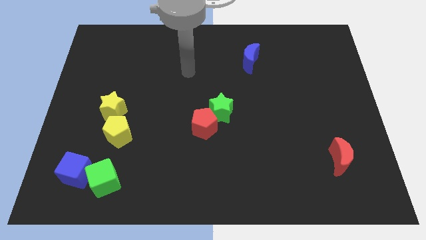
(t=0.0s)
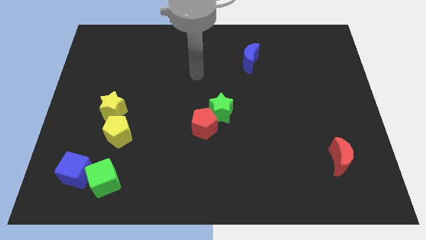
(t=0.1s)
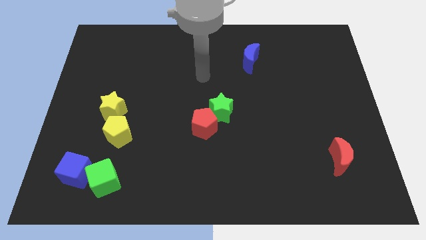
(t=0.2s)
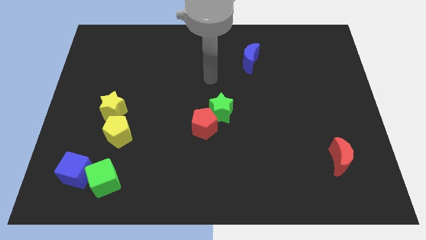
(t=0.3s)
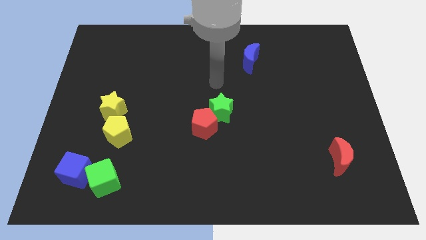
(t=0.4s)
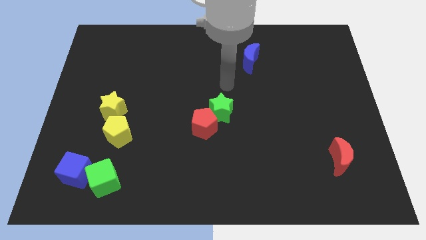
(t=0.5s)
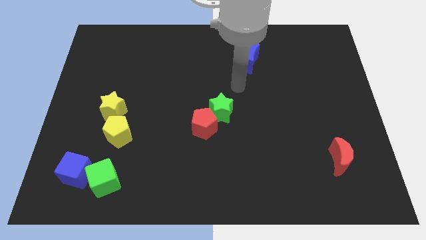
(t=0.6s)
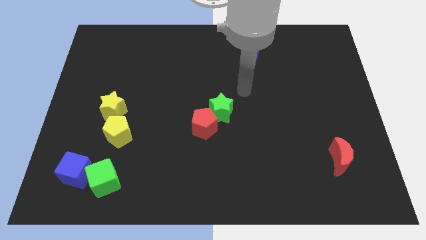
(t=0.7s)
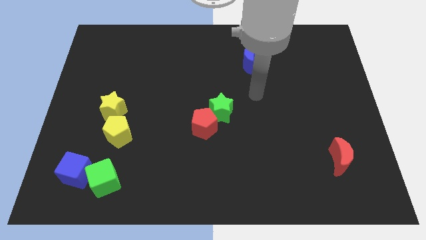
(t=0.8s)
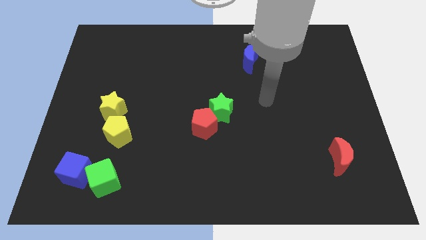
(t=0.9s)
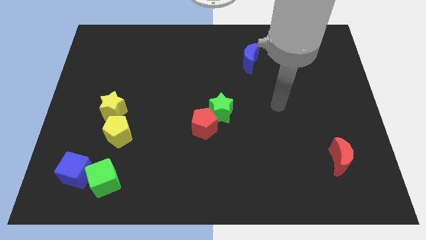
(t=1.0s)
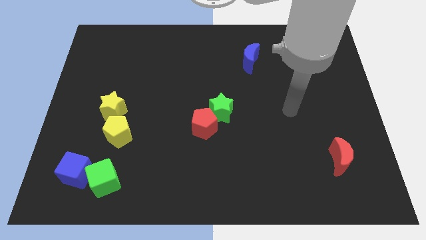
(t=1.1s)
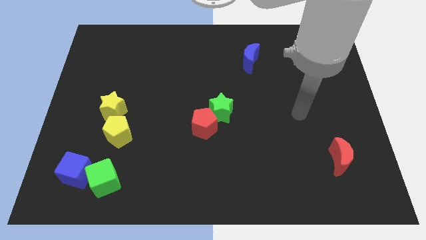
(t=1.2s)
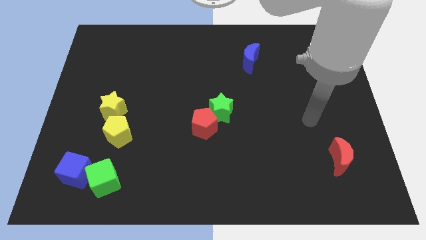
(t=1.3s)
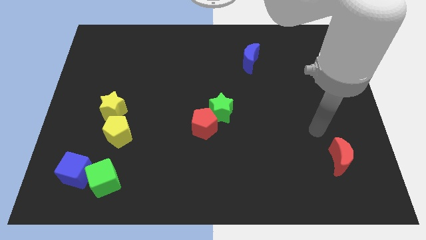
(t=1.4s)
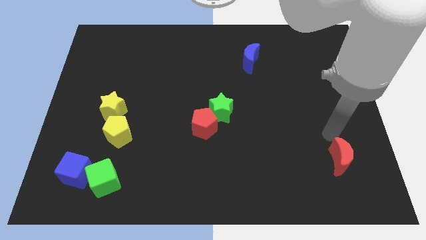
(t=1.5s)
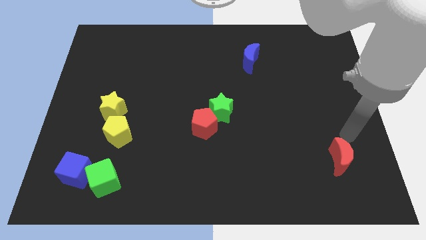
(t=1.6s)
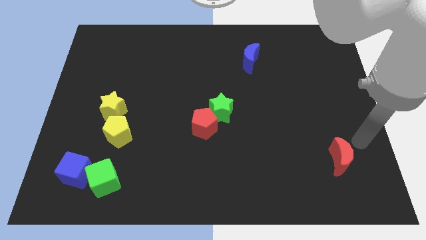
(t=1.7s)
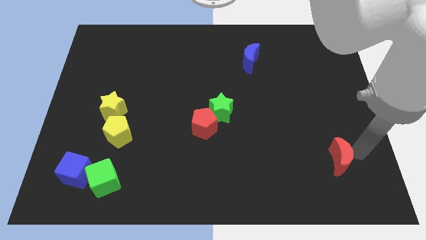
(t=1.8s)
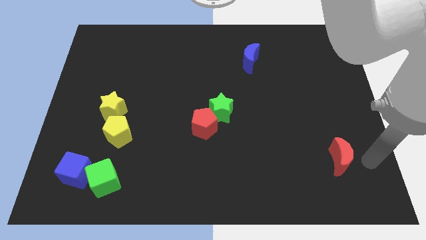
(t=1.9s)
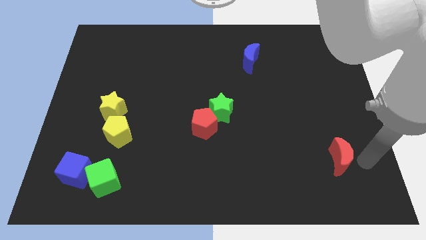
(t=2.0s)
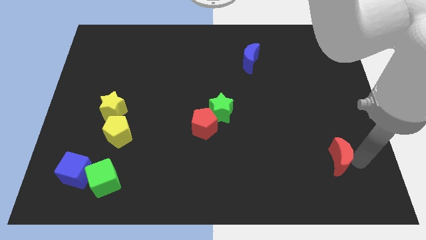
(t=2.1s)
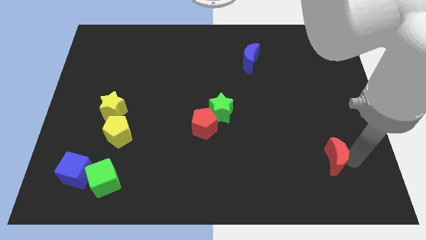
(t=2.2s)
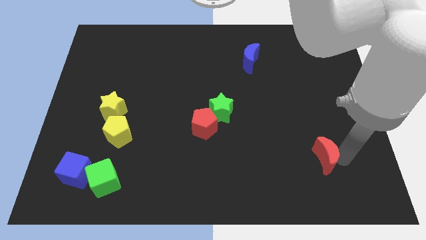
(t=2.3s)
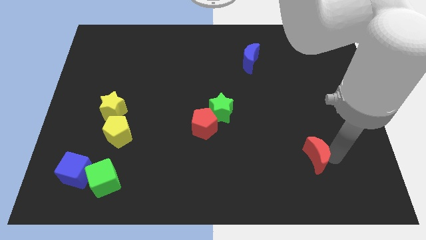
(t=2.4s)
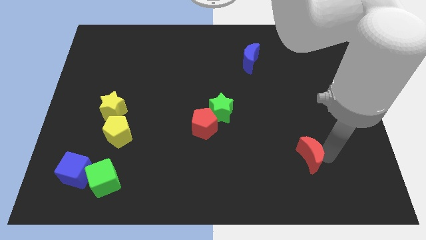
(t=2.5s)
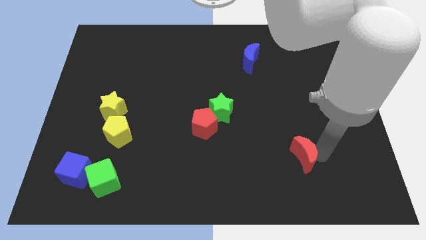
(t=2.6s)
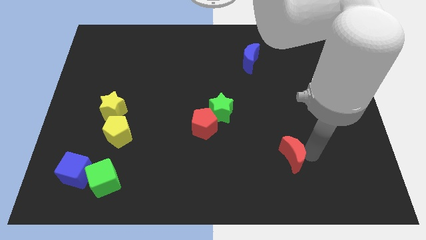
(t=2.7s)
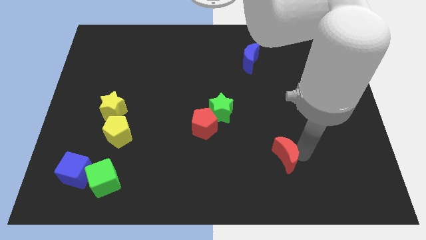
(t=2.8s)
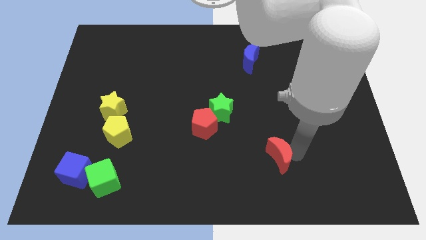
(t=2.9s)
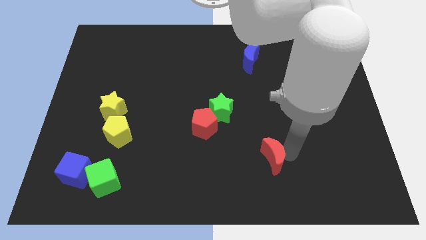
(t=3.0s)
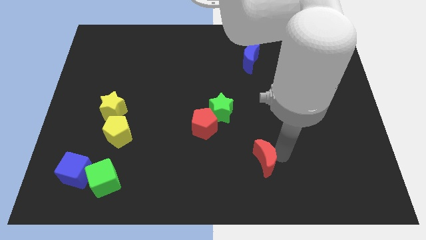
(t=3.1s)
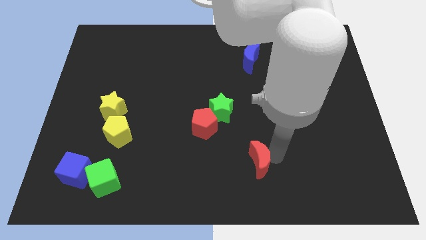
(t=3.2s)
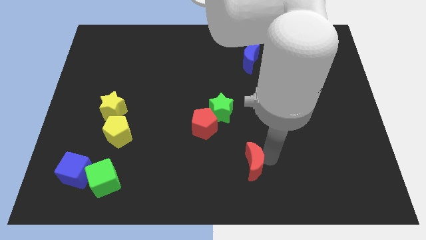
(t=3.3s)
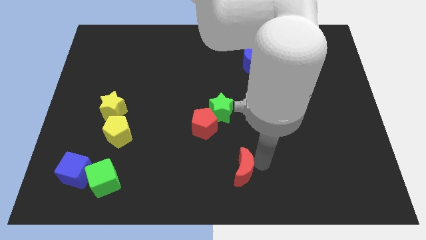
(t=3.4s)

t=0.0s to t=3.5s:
slide the red moon to the left

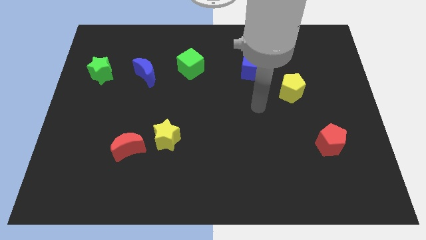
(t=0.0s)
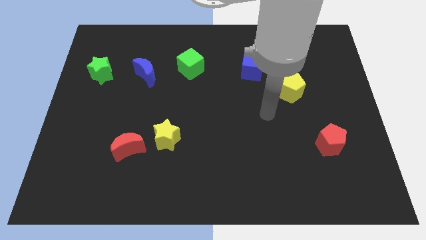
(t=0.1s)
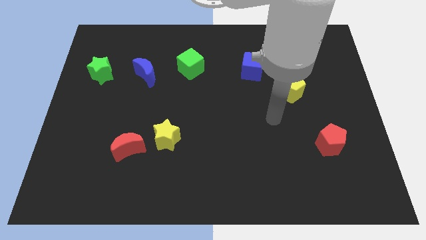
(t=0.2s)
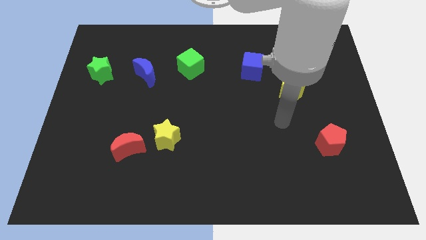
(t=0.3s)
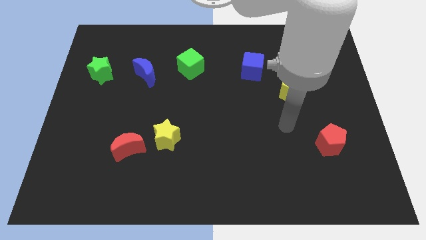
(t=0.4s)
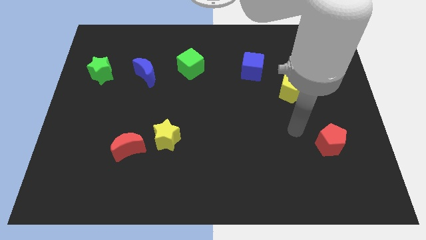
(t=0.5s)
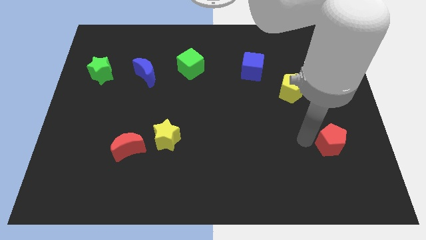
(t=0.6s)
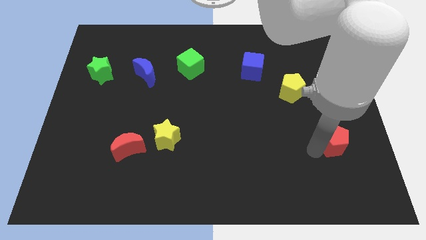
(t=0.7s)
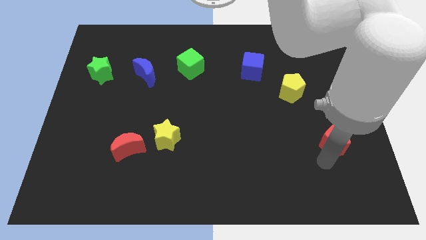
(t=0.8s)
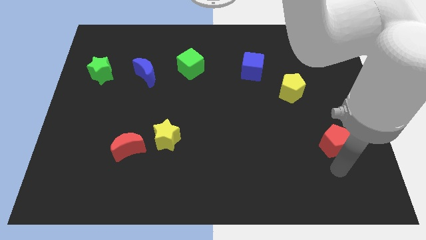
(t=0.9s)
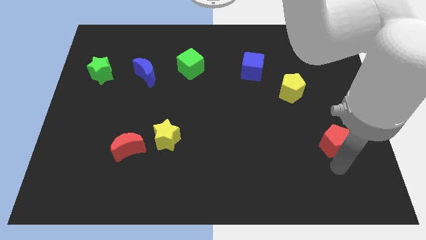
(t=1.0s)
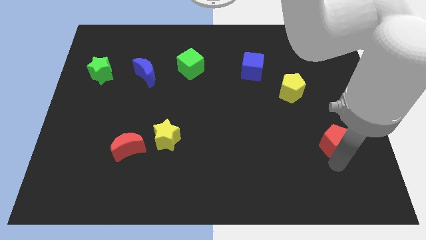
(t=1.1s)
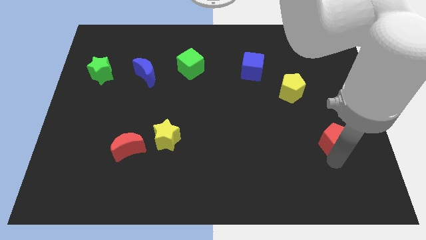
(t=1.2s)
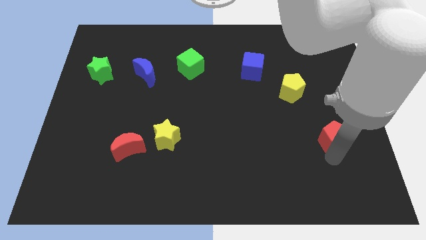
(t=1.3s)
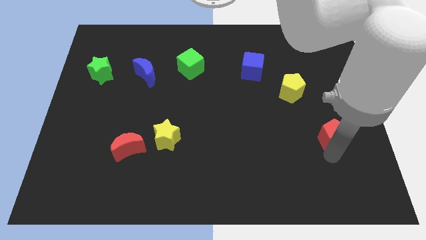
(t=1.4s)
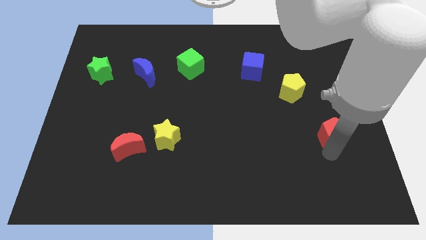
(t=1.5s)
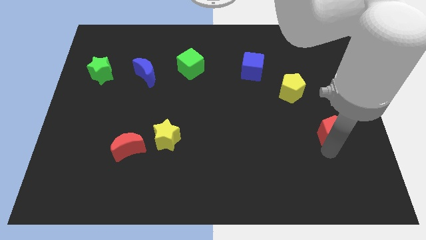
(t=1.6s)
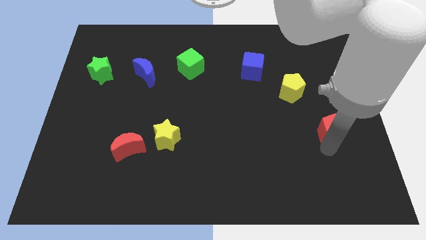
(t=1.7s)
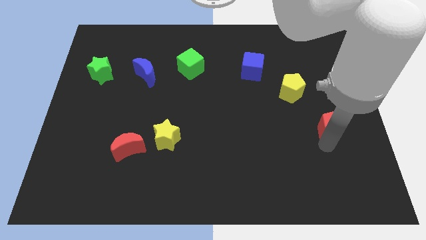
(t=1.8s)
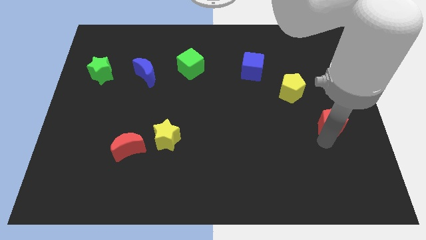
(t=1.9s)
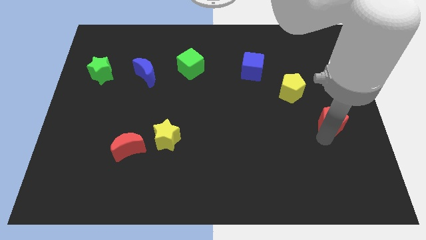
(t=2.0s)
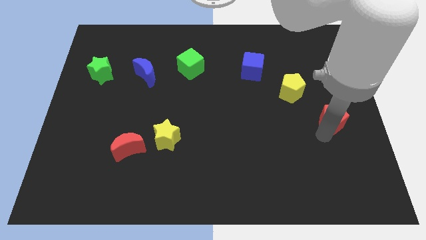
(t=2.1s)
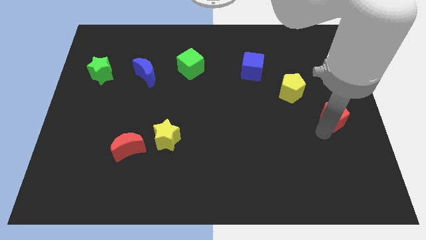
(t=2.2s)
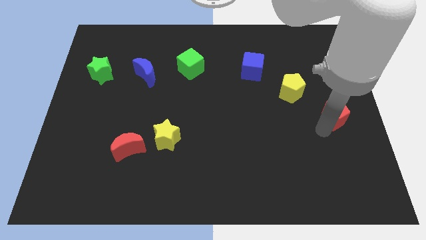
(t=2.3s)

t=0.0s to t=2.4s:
move the red pentagon upwards slightly

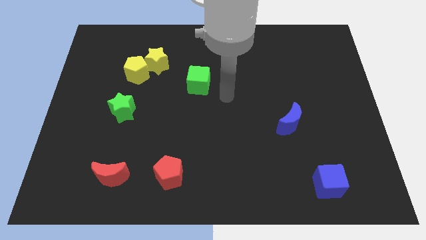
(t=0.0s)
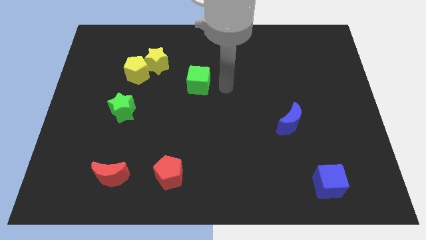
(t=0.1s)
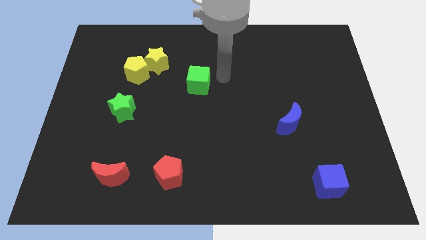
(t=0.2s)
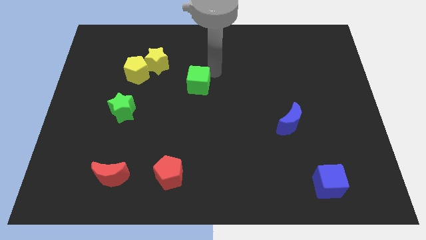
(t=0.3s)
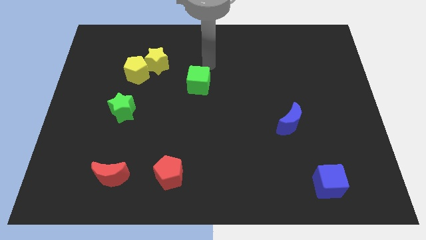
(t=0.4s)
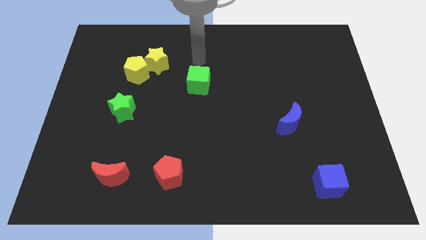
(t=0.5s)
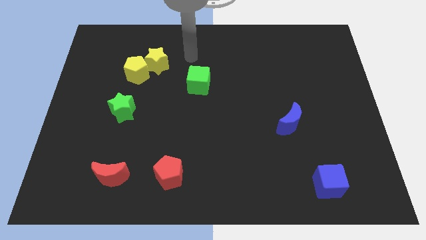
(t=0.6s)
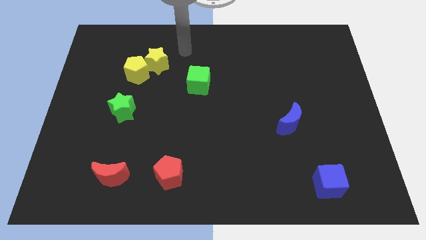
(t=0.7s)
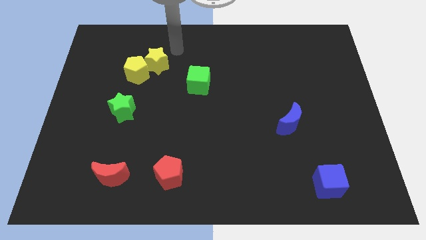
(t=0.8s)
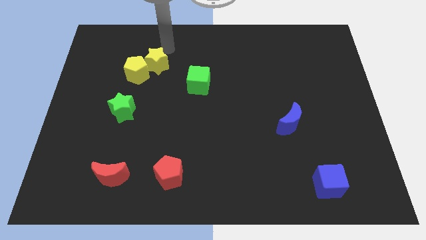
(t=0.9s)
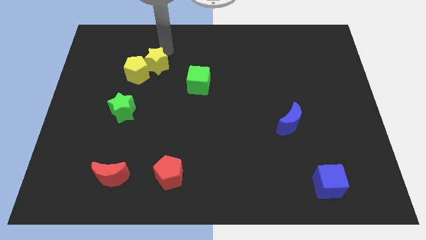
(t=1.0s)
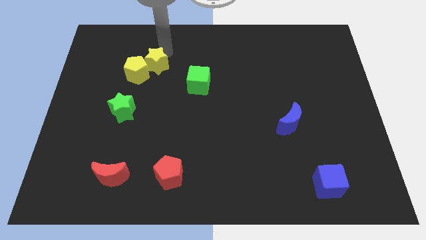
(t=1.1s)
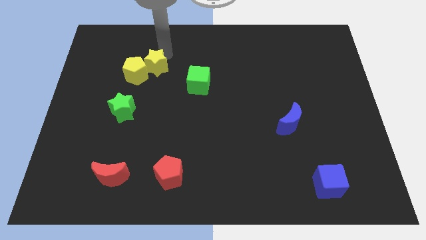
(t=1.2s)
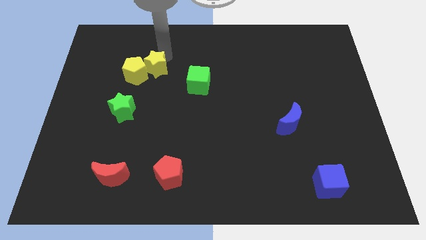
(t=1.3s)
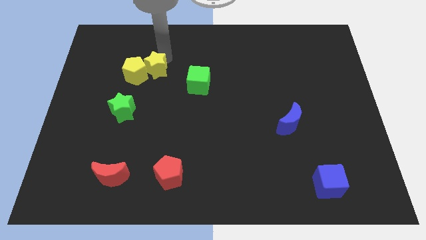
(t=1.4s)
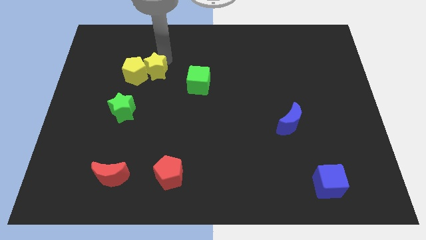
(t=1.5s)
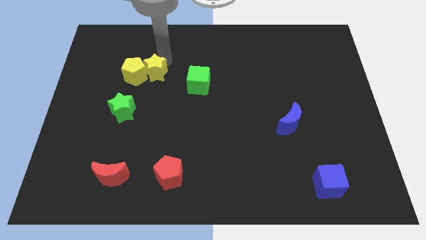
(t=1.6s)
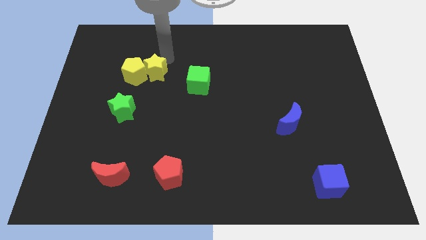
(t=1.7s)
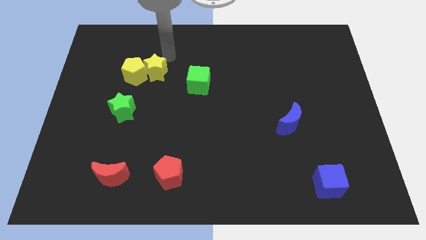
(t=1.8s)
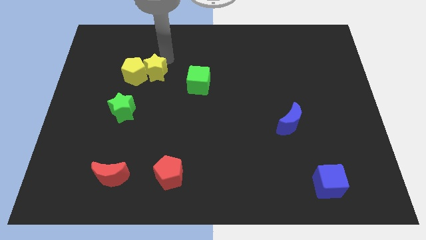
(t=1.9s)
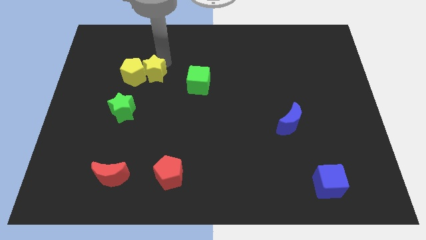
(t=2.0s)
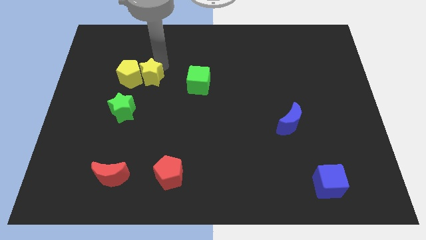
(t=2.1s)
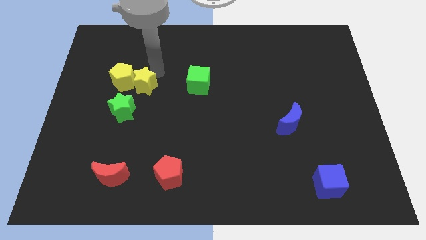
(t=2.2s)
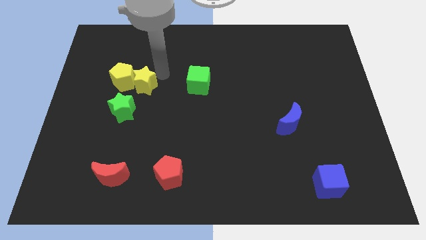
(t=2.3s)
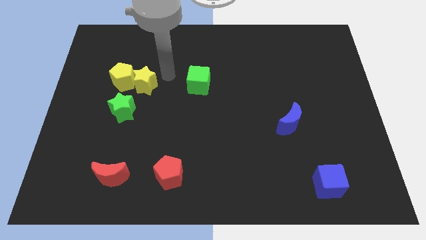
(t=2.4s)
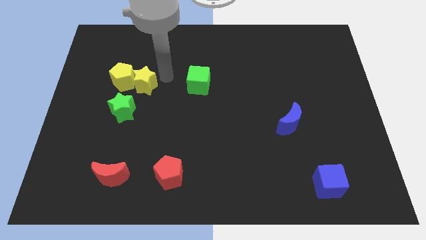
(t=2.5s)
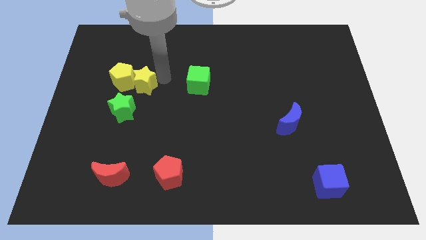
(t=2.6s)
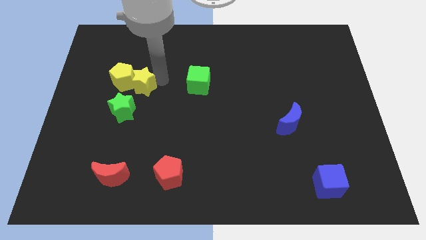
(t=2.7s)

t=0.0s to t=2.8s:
slightly move the yellow star downwards and to the left diagonally
